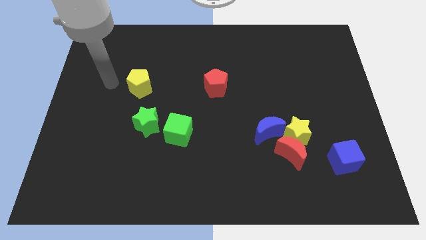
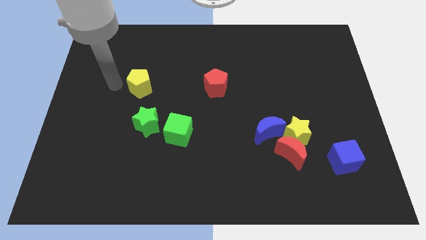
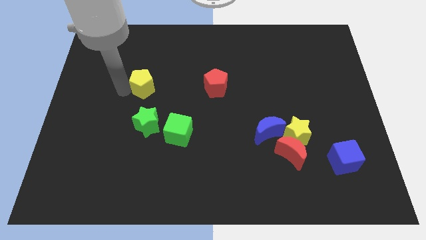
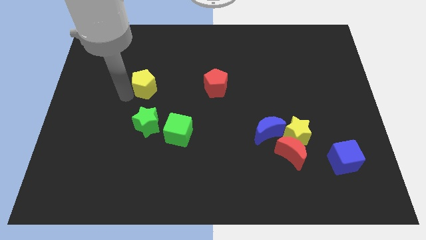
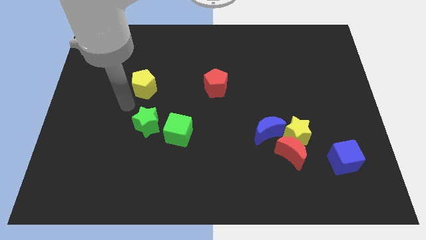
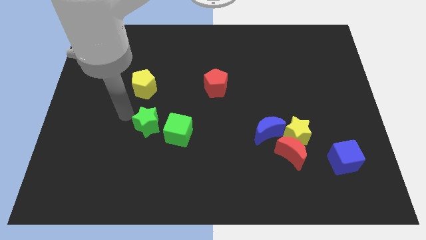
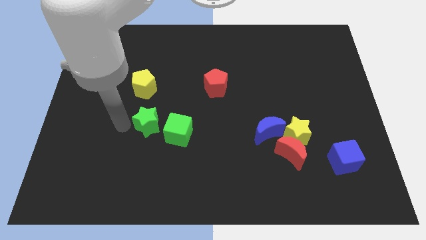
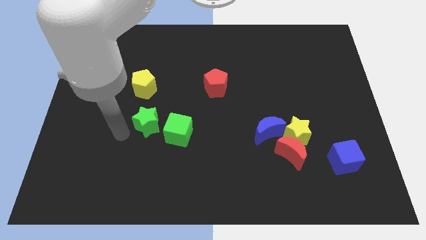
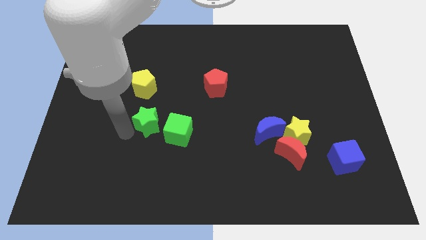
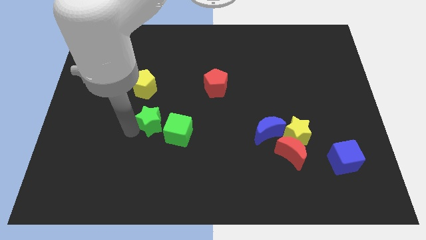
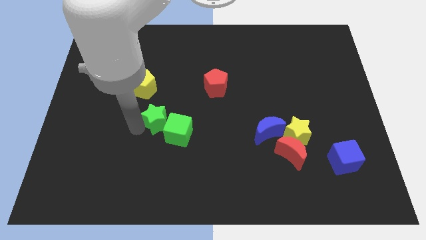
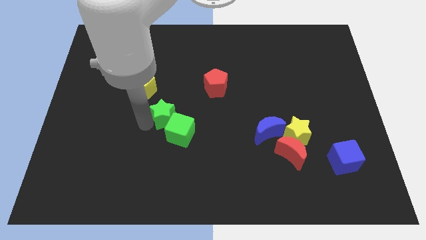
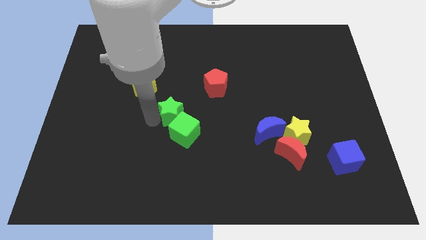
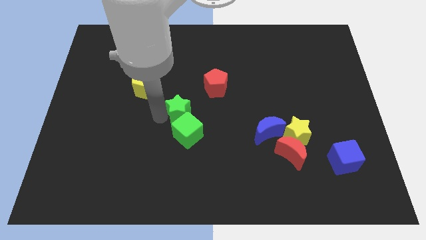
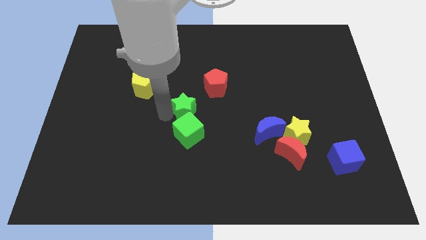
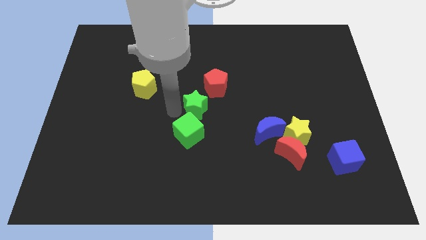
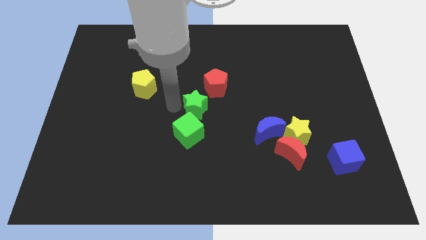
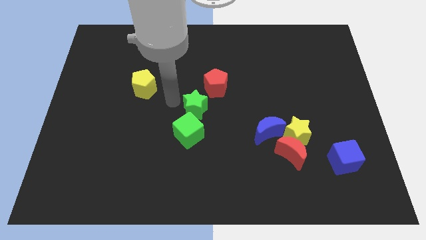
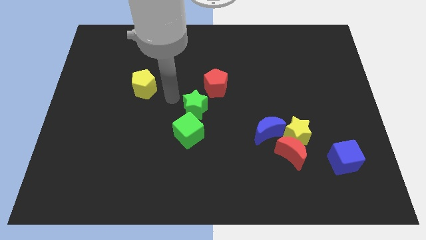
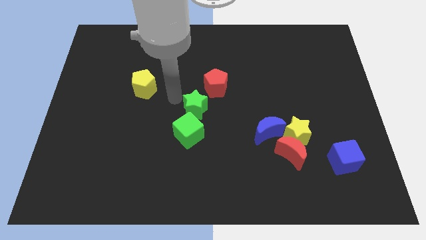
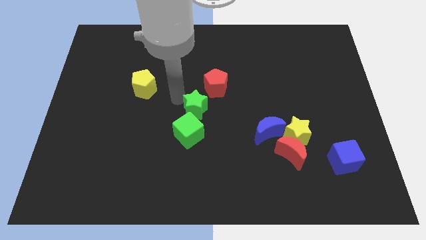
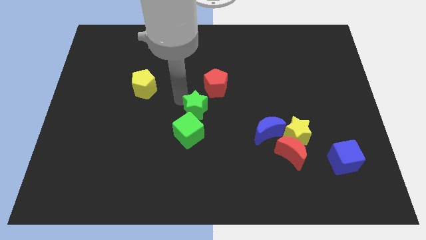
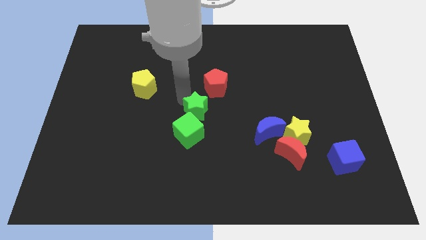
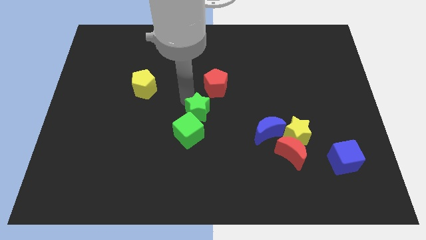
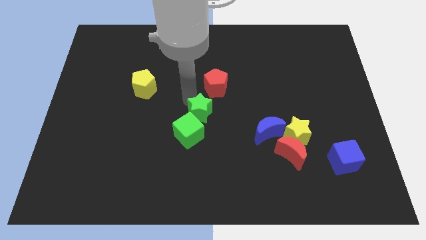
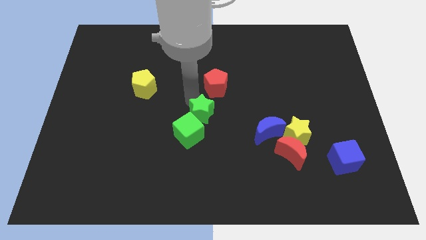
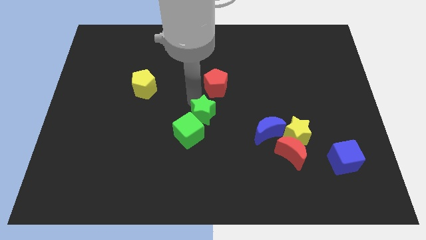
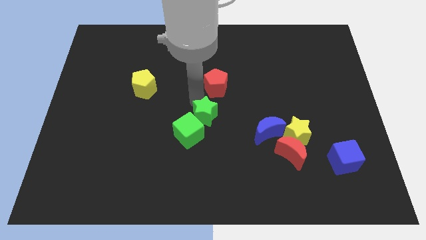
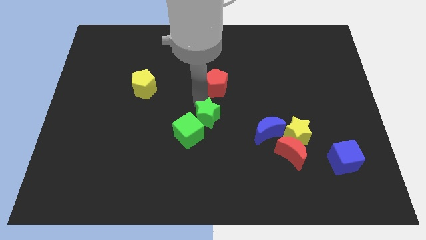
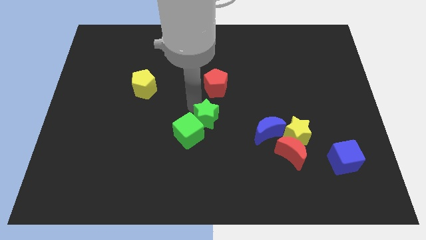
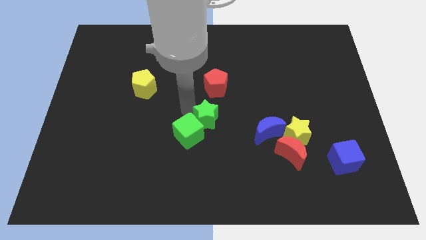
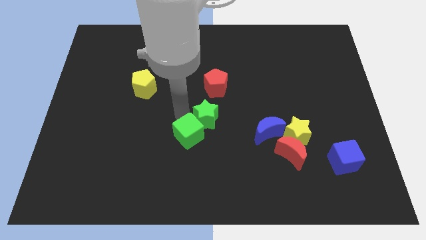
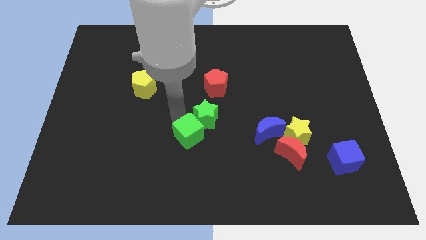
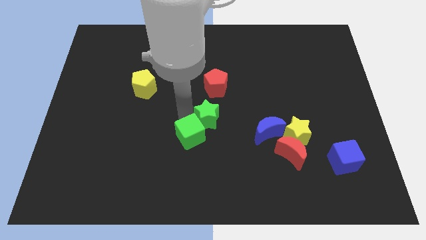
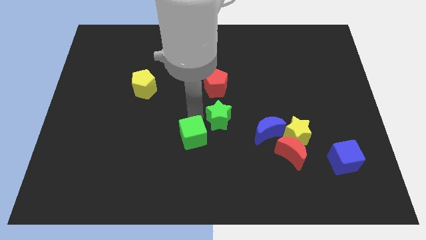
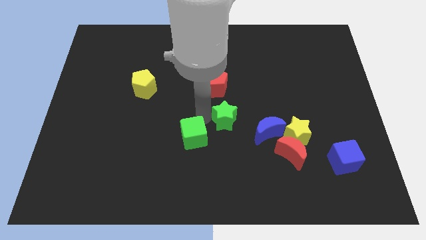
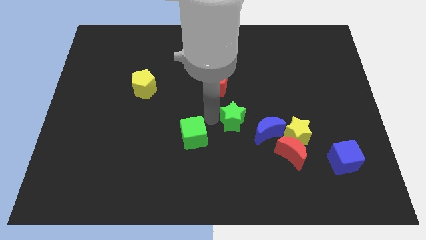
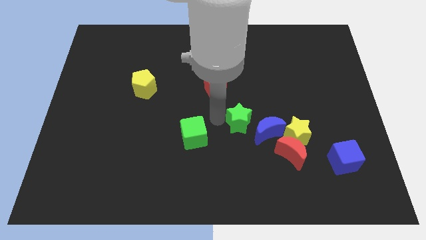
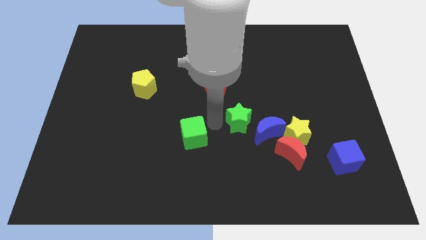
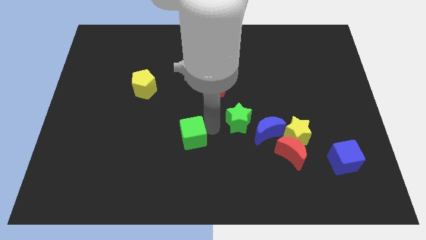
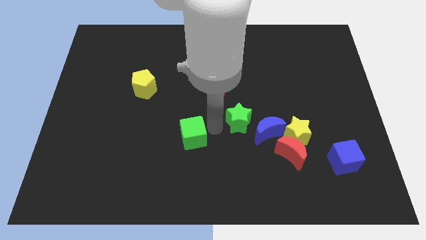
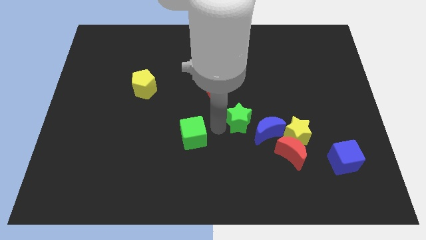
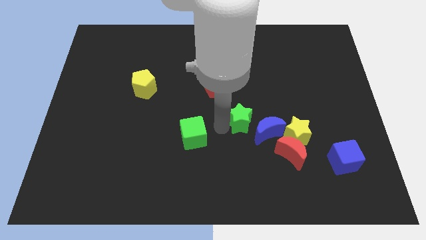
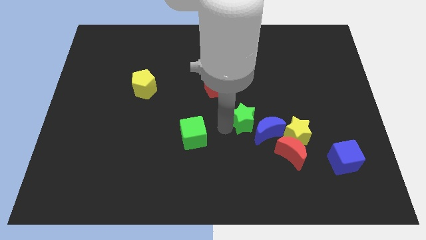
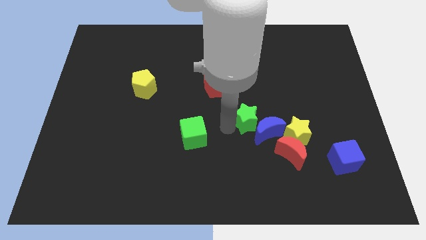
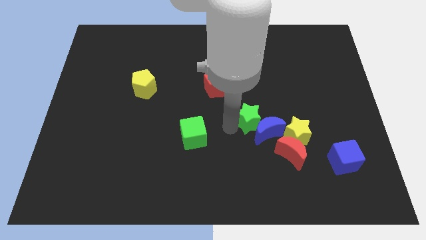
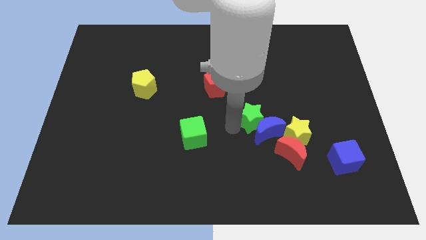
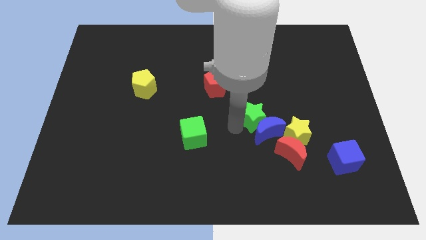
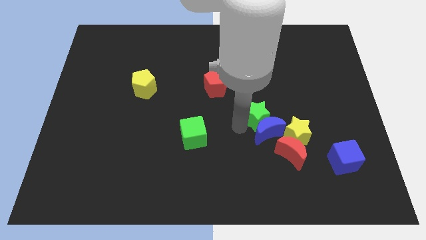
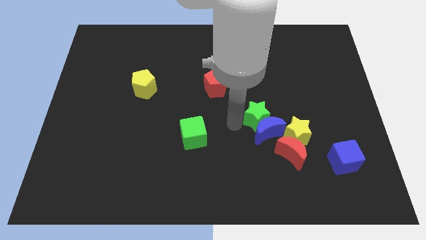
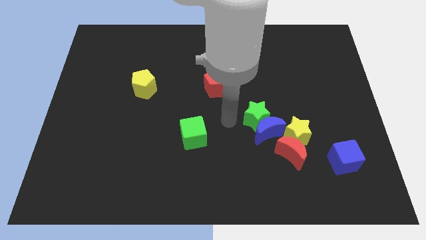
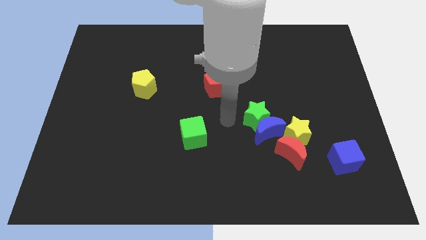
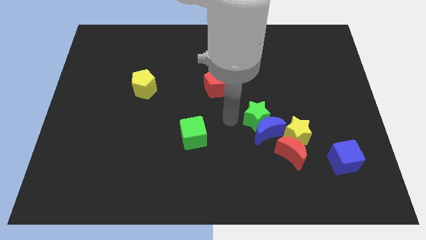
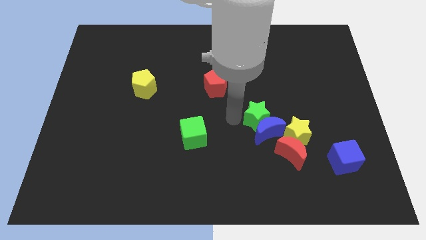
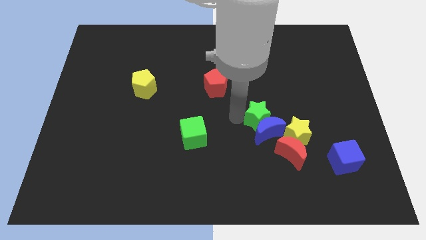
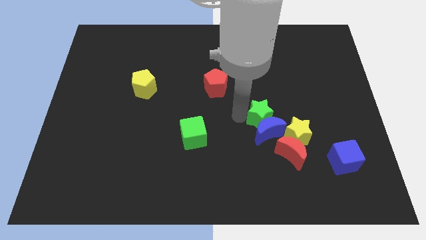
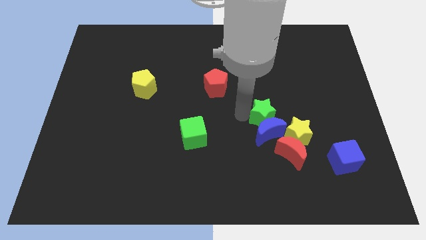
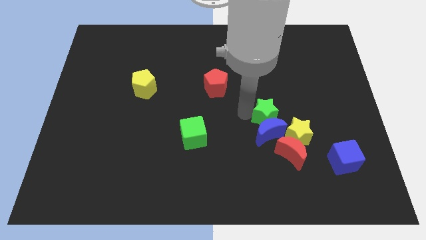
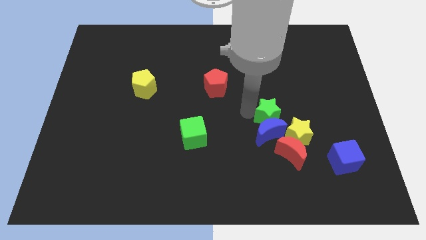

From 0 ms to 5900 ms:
slide the green star to the top side of the red moon

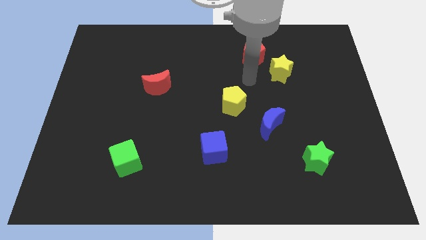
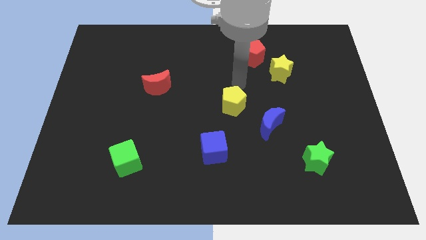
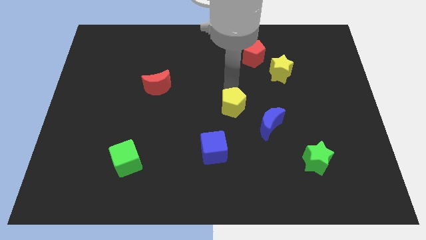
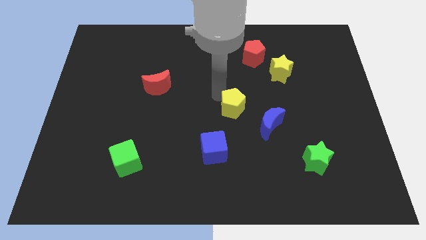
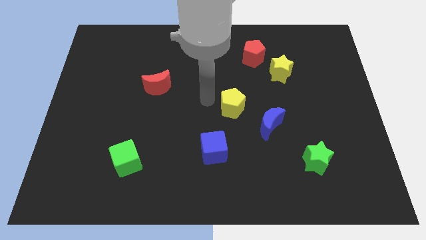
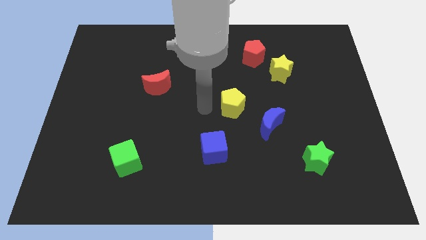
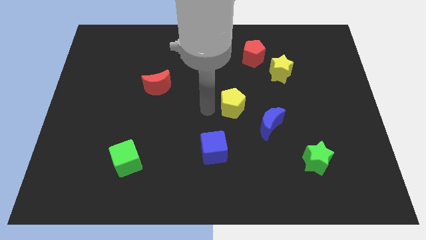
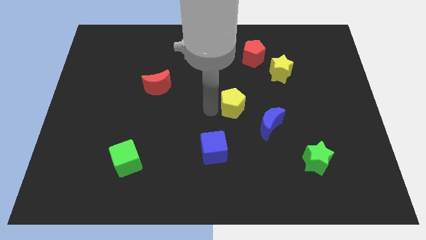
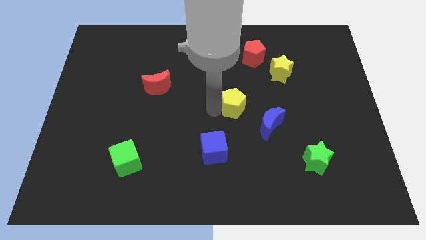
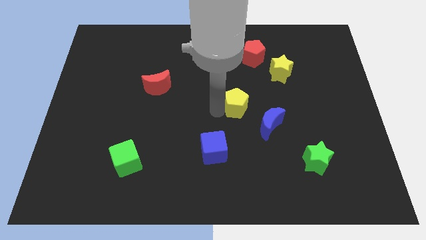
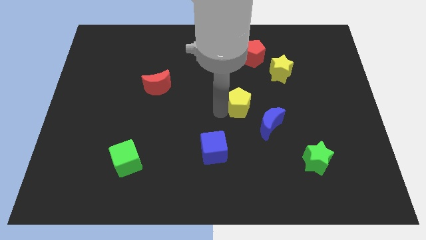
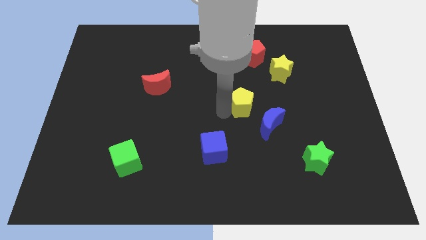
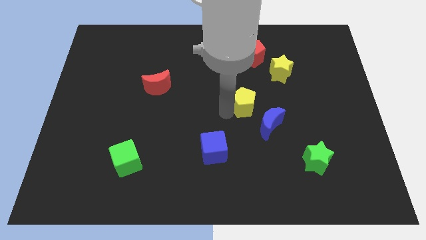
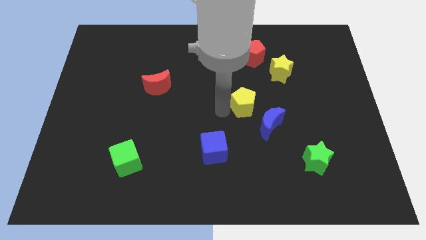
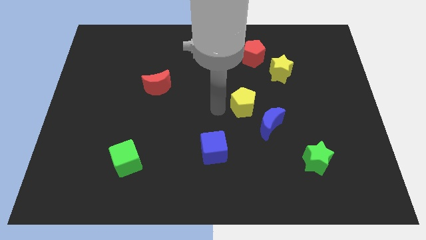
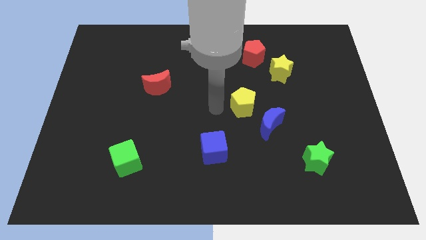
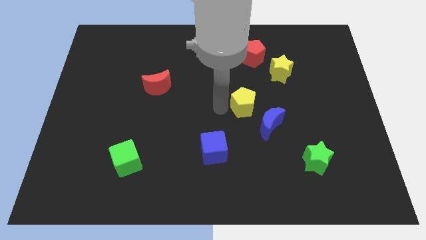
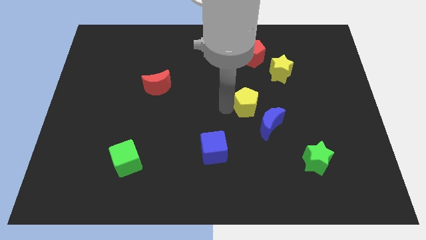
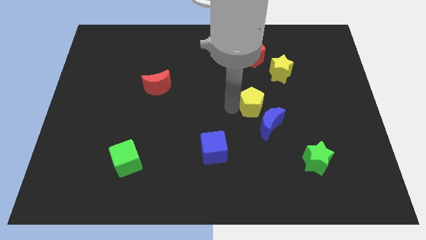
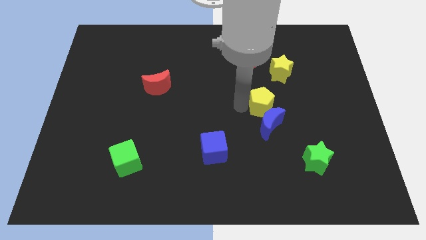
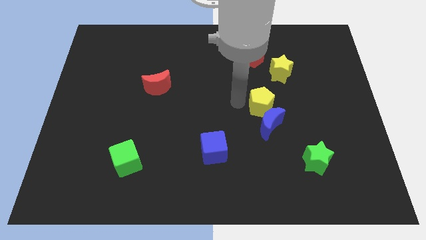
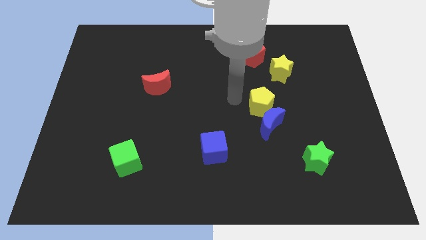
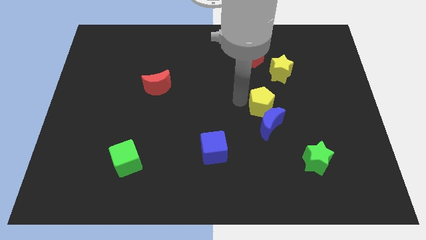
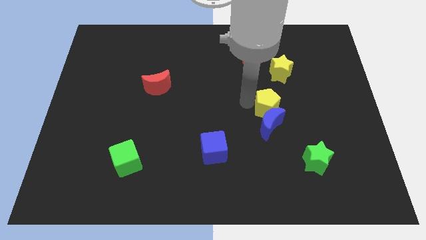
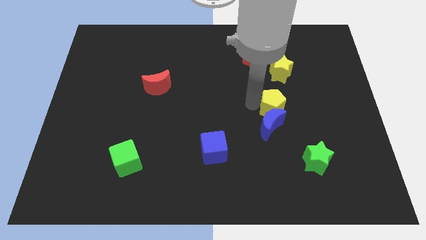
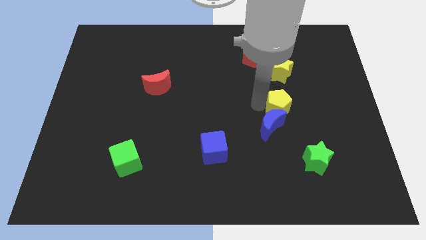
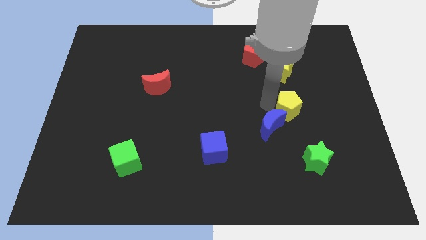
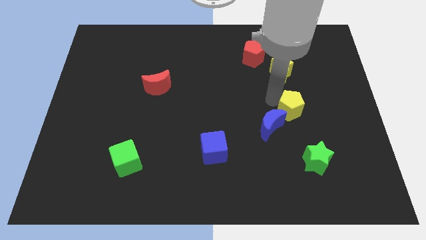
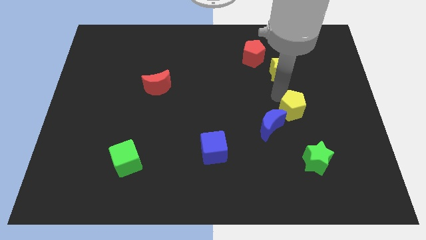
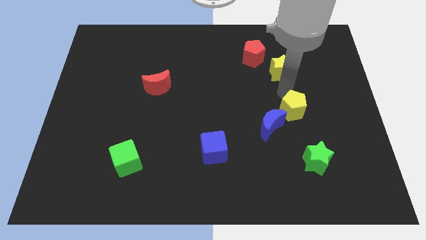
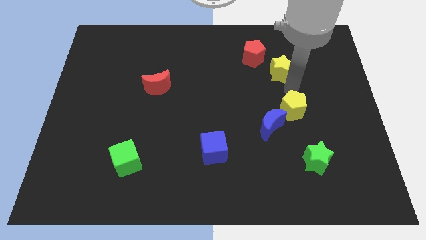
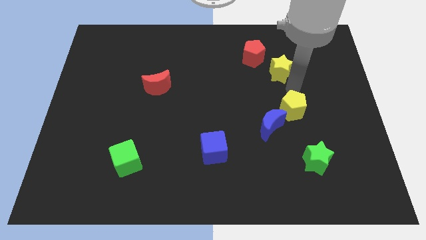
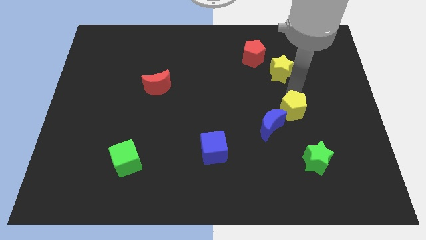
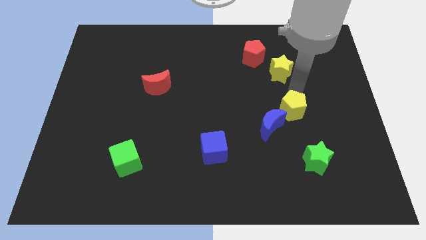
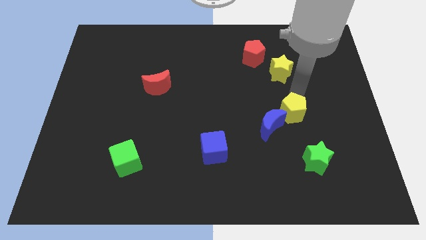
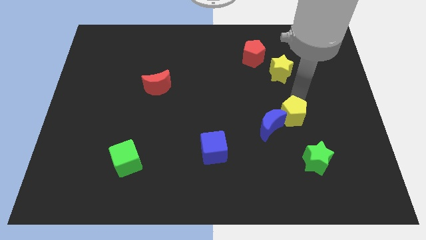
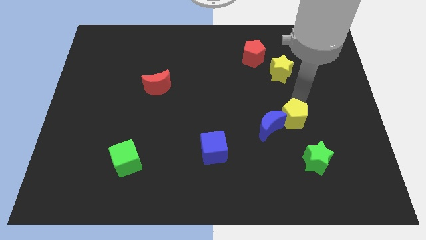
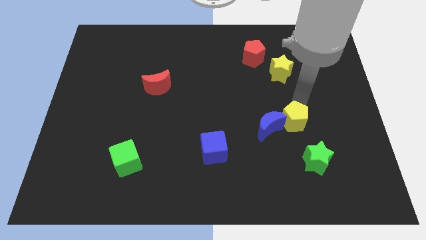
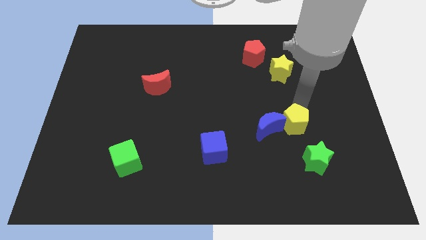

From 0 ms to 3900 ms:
put the yellow pentagon diagonally up and to the left of the green star
